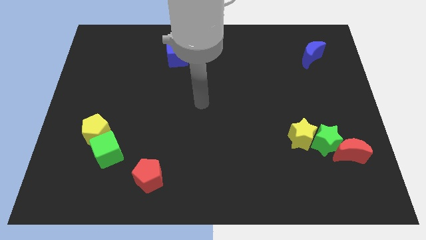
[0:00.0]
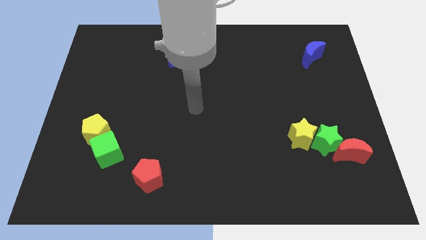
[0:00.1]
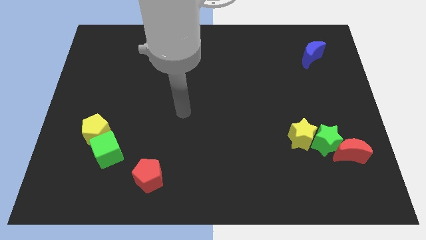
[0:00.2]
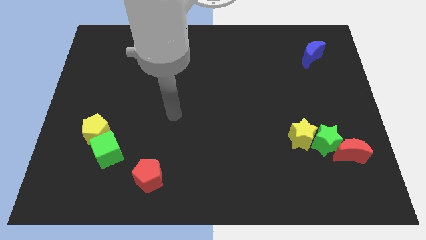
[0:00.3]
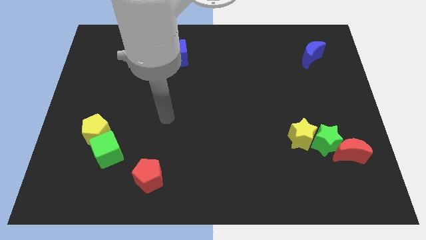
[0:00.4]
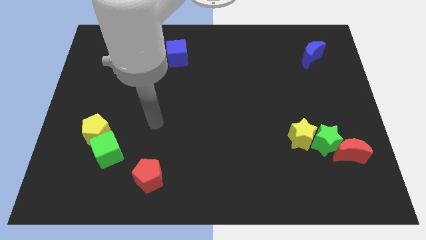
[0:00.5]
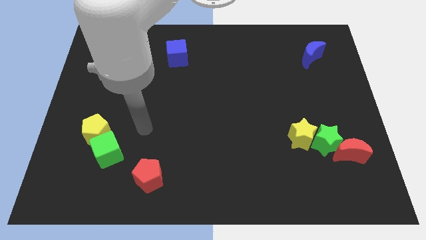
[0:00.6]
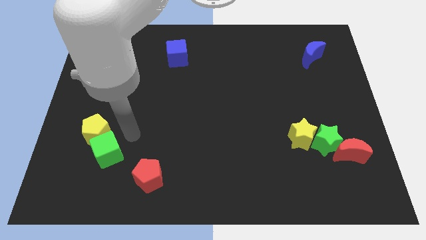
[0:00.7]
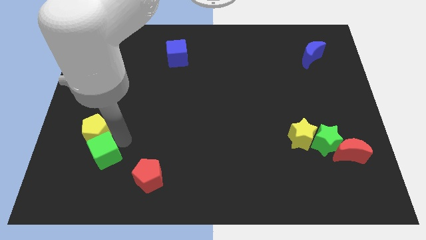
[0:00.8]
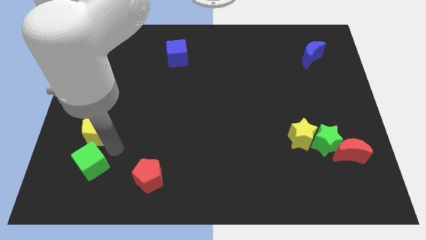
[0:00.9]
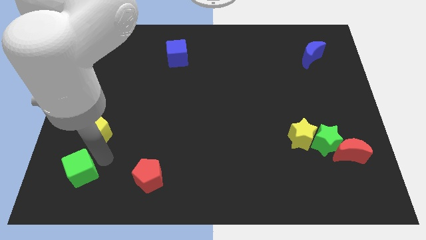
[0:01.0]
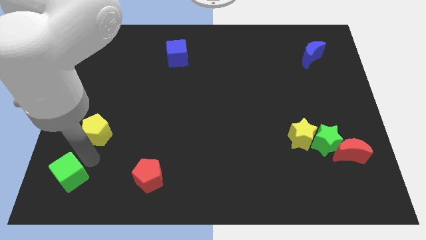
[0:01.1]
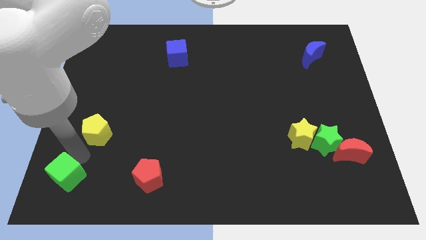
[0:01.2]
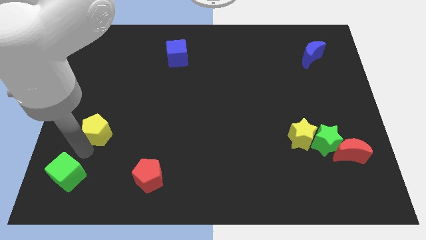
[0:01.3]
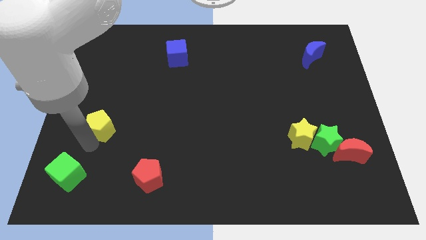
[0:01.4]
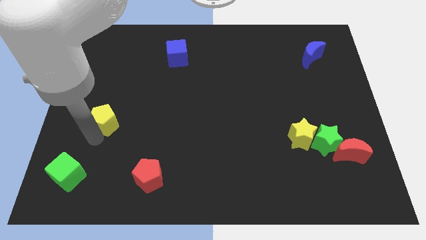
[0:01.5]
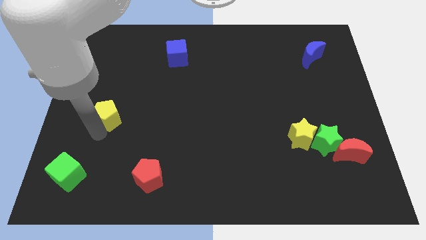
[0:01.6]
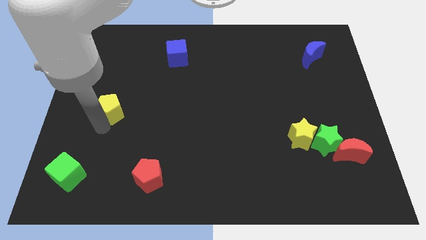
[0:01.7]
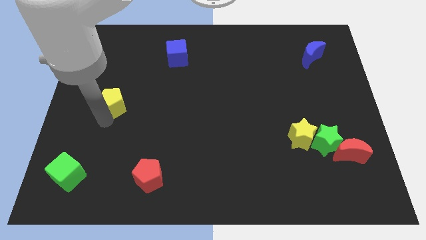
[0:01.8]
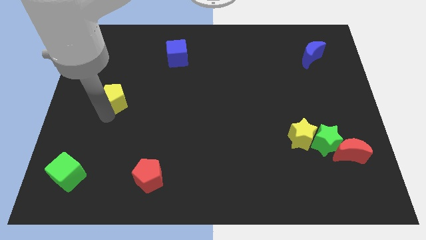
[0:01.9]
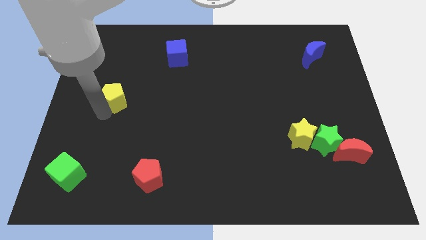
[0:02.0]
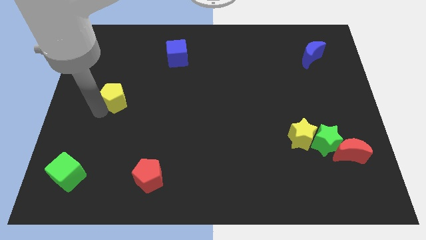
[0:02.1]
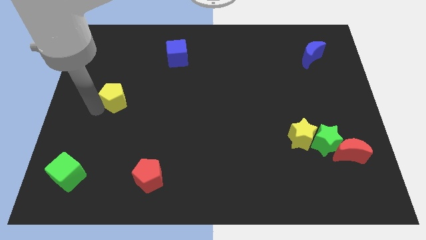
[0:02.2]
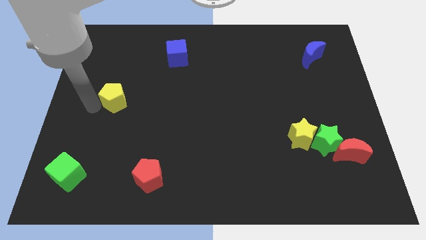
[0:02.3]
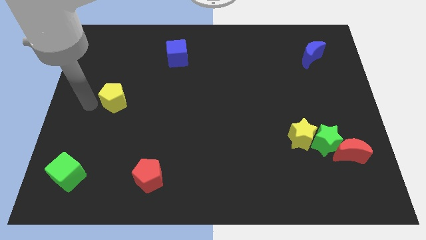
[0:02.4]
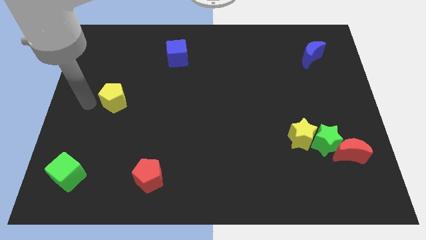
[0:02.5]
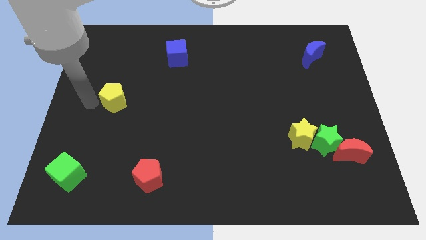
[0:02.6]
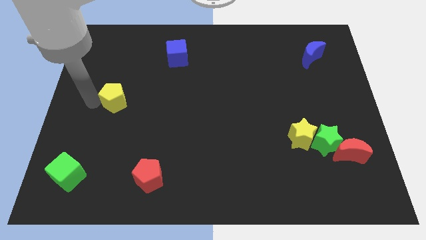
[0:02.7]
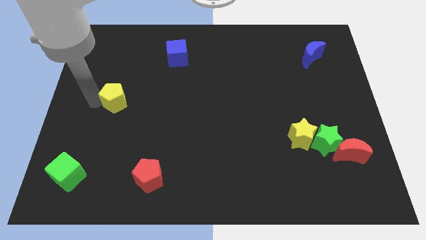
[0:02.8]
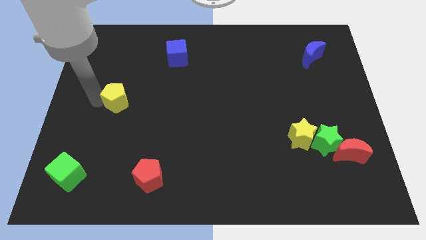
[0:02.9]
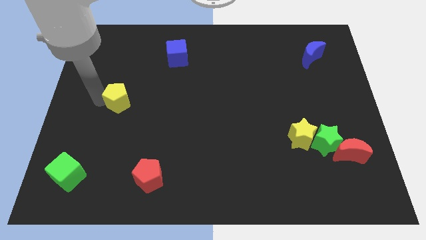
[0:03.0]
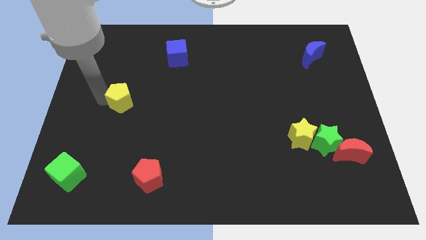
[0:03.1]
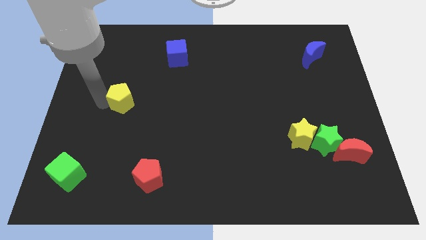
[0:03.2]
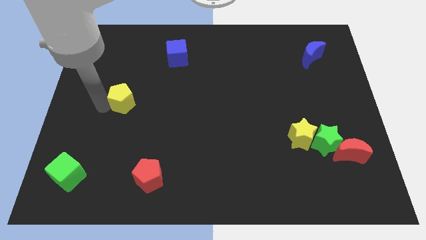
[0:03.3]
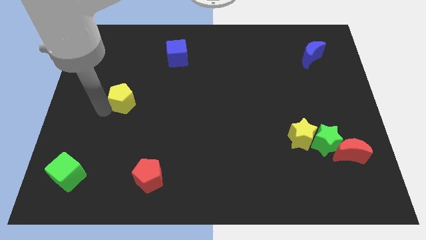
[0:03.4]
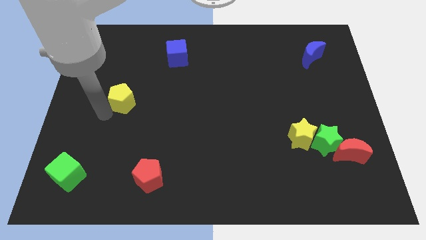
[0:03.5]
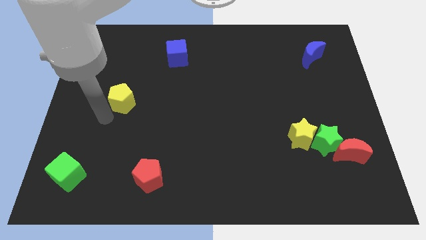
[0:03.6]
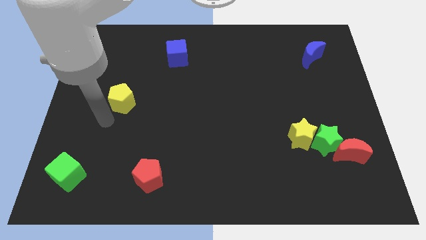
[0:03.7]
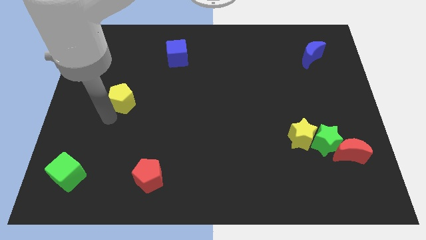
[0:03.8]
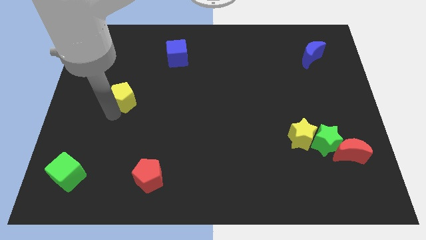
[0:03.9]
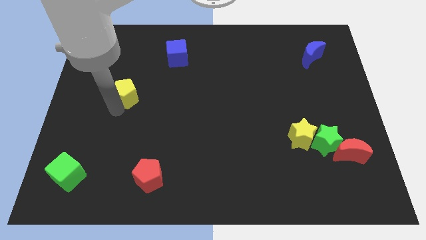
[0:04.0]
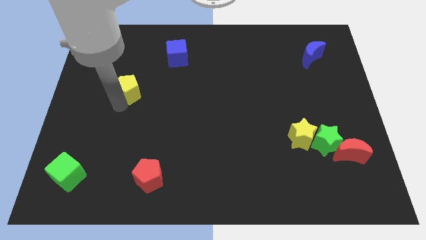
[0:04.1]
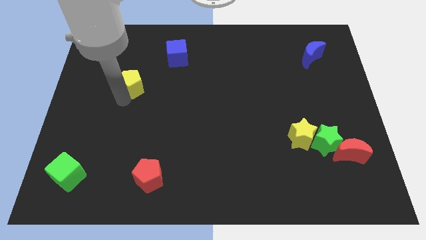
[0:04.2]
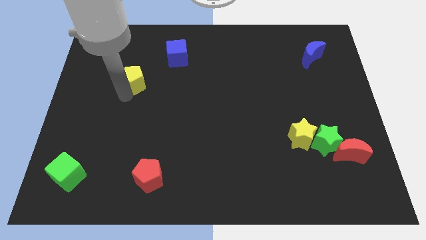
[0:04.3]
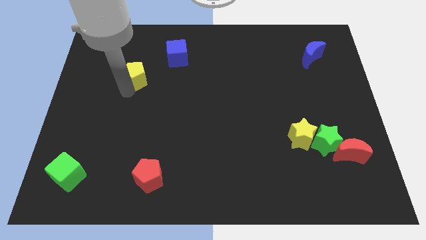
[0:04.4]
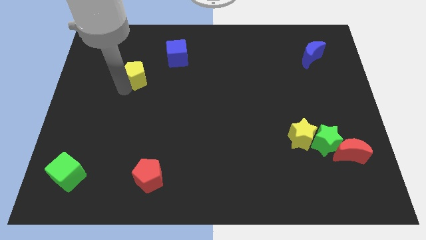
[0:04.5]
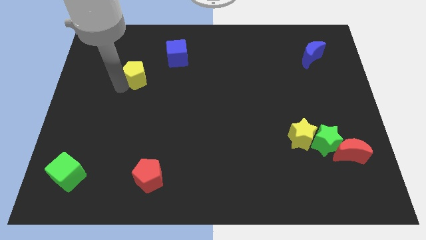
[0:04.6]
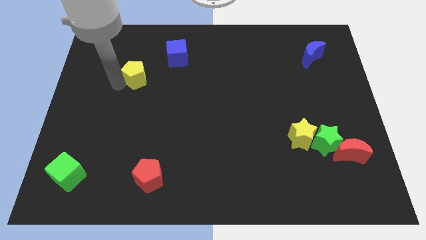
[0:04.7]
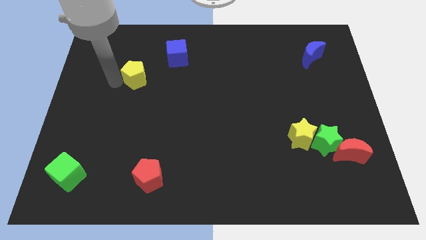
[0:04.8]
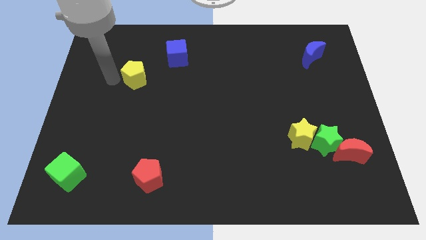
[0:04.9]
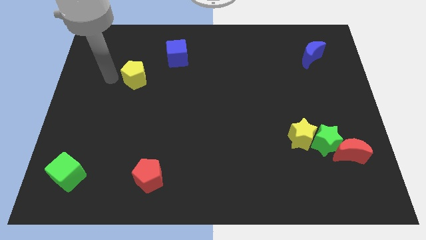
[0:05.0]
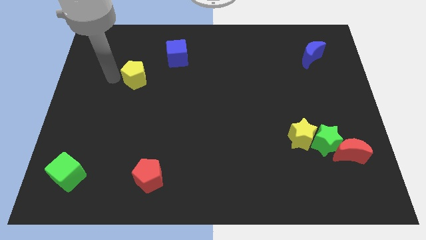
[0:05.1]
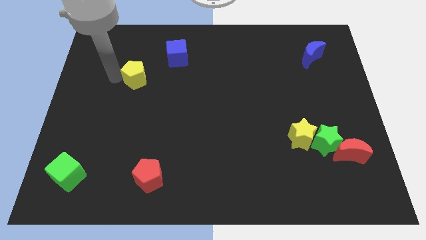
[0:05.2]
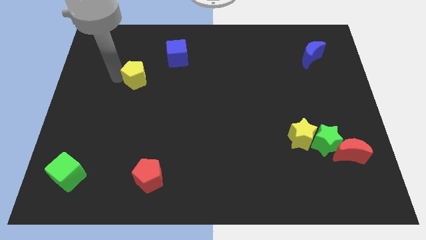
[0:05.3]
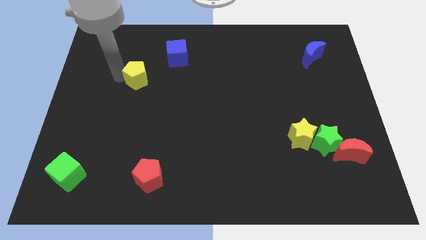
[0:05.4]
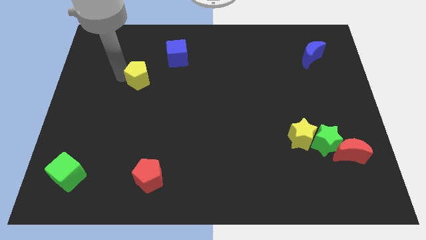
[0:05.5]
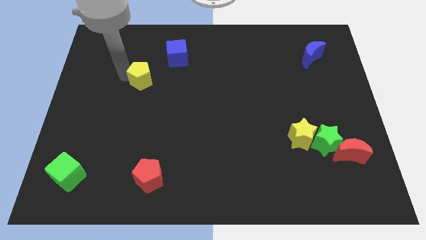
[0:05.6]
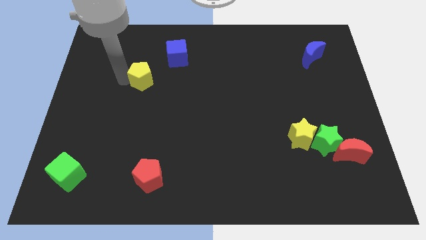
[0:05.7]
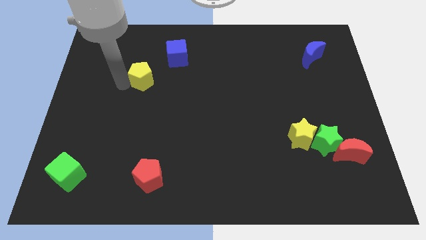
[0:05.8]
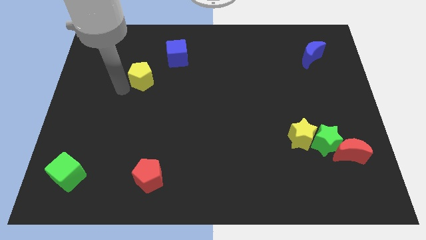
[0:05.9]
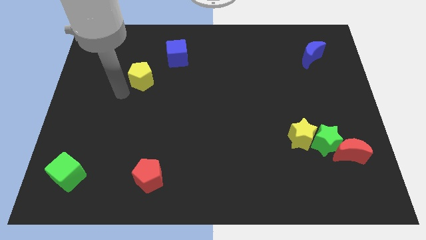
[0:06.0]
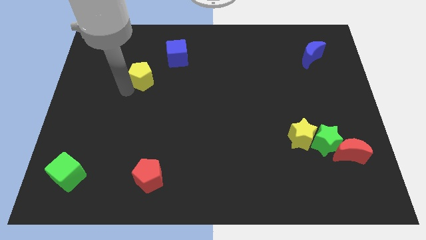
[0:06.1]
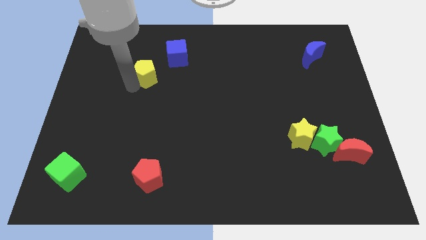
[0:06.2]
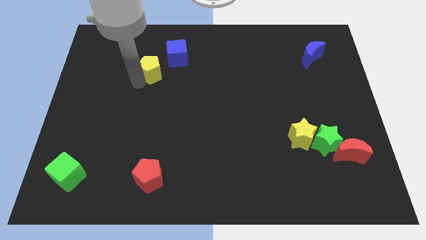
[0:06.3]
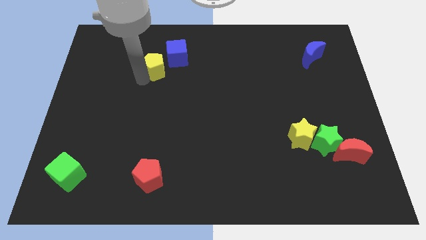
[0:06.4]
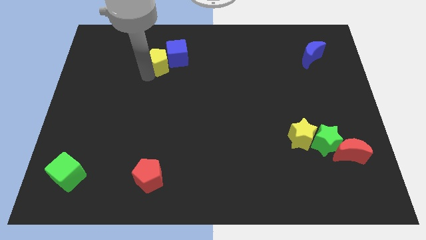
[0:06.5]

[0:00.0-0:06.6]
move the yellow pentagon towards the blue cube
